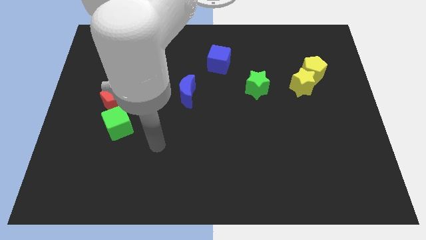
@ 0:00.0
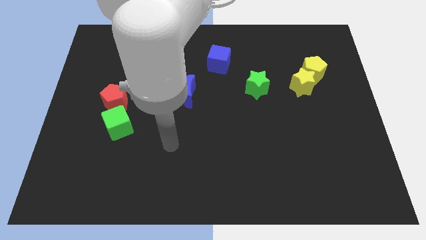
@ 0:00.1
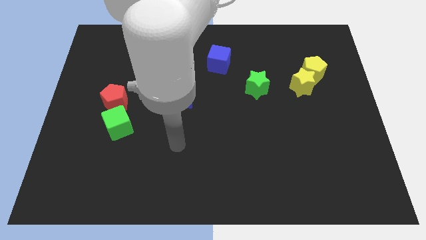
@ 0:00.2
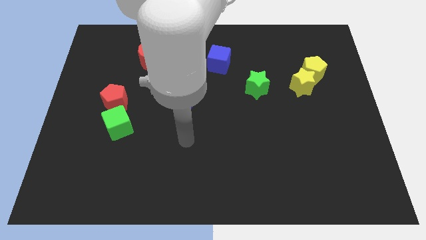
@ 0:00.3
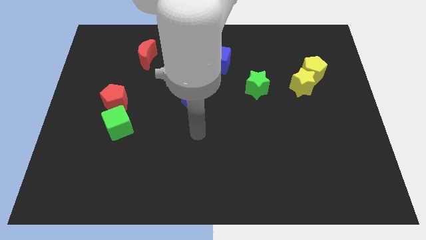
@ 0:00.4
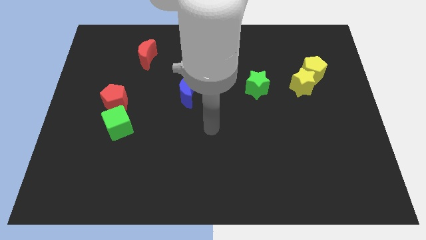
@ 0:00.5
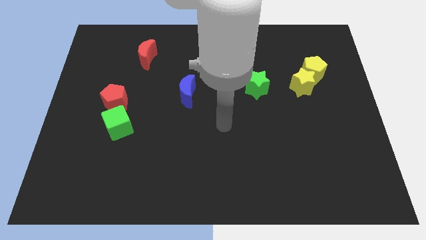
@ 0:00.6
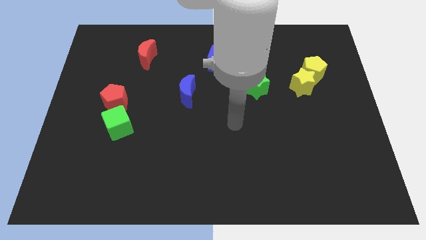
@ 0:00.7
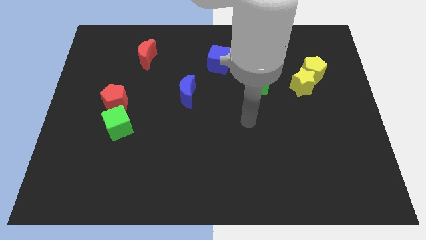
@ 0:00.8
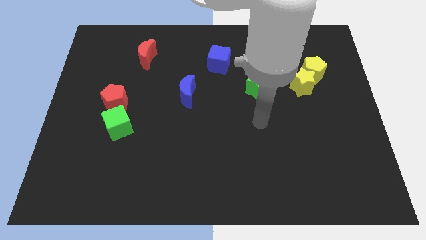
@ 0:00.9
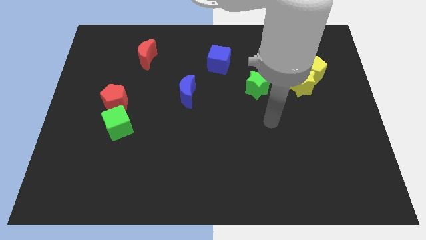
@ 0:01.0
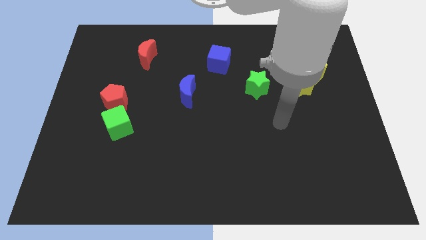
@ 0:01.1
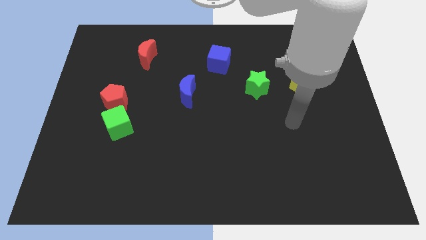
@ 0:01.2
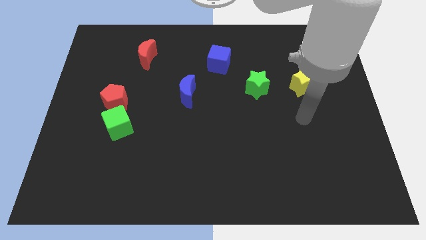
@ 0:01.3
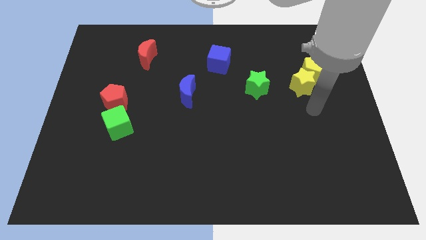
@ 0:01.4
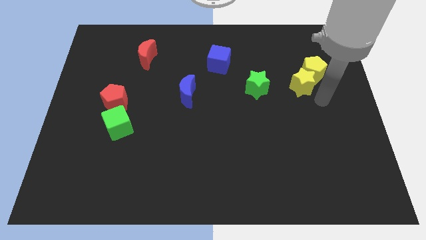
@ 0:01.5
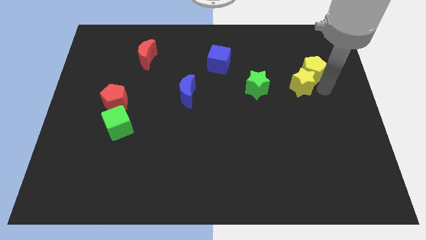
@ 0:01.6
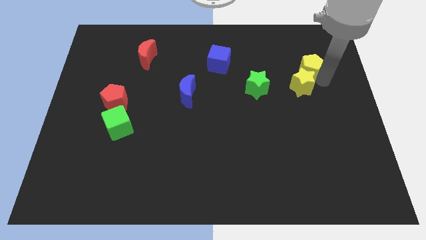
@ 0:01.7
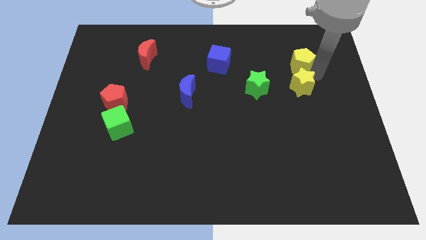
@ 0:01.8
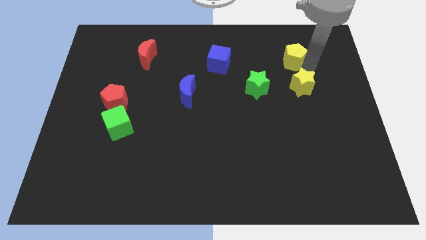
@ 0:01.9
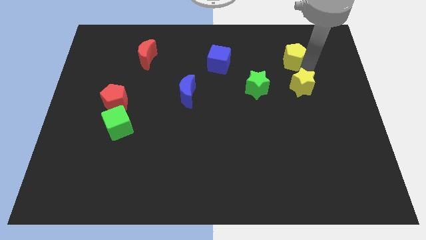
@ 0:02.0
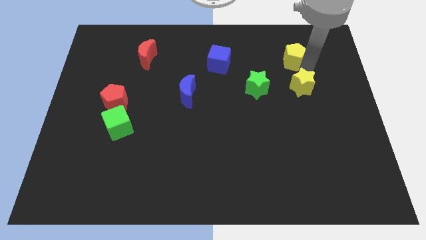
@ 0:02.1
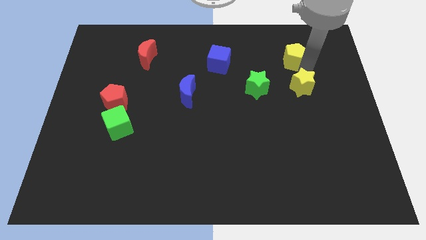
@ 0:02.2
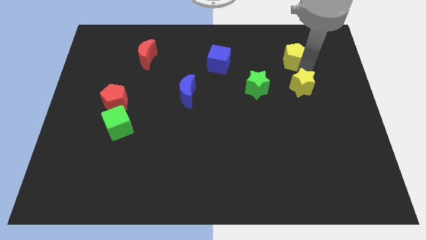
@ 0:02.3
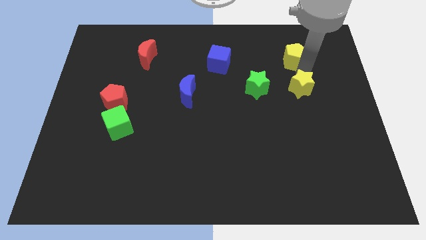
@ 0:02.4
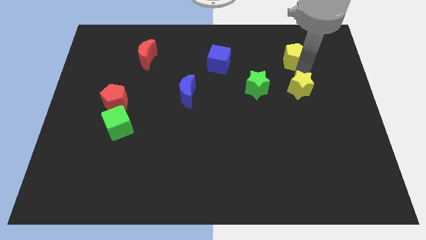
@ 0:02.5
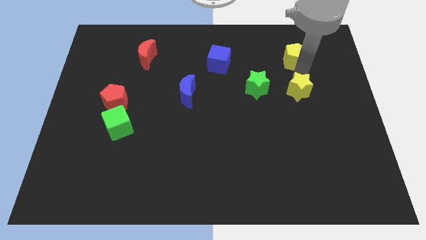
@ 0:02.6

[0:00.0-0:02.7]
move the yellow star away from the yellow pentagon

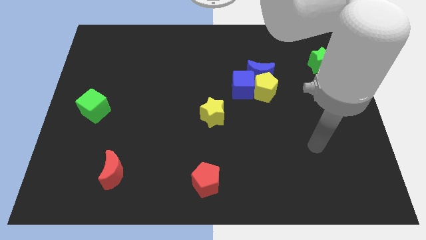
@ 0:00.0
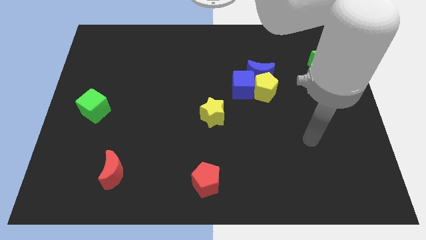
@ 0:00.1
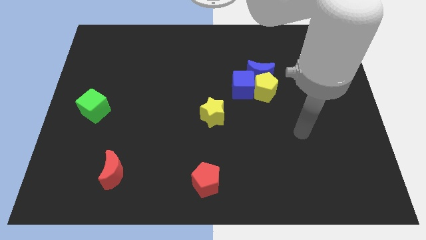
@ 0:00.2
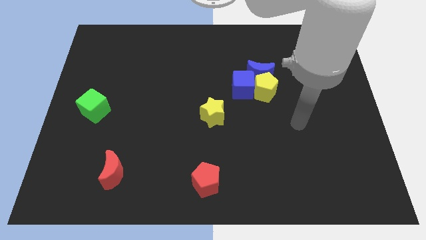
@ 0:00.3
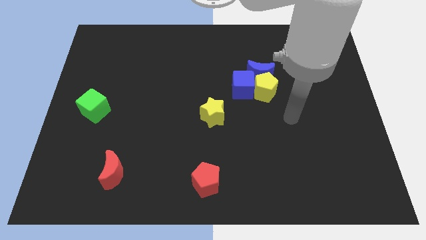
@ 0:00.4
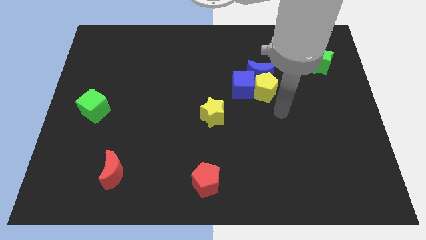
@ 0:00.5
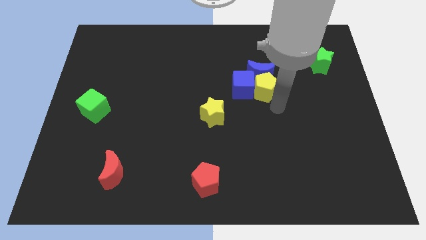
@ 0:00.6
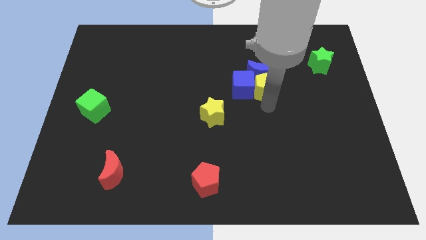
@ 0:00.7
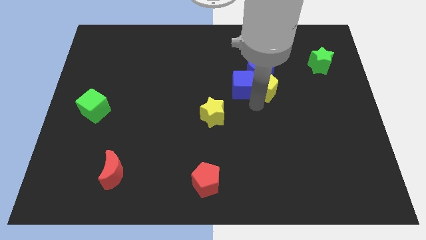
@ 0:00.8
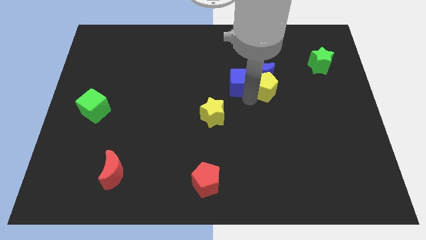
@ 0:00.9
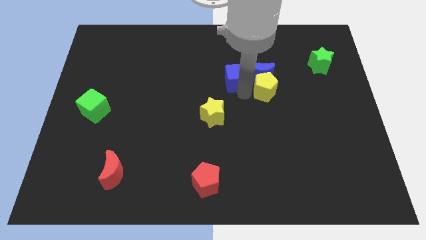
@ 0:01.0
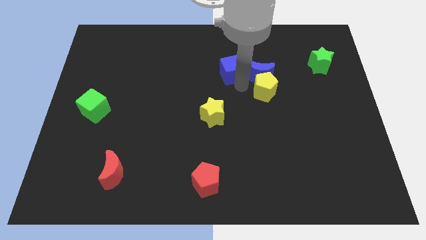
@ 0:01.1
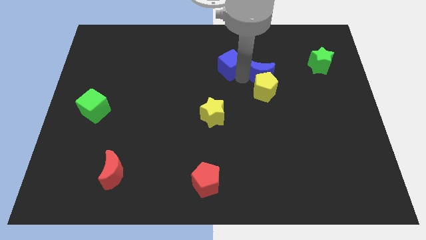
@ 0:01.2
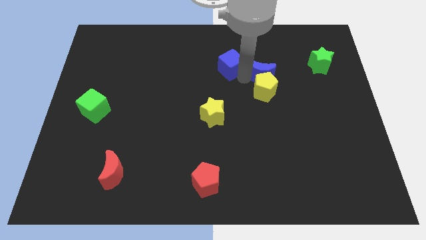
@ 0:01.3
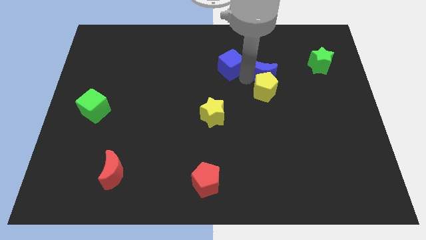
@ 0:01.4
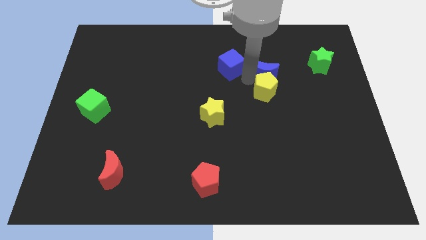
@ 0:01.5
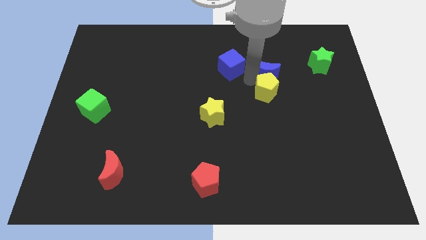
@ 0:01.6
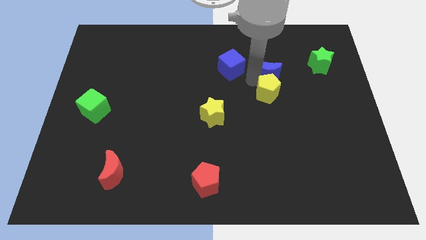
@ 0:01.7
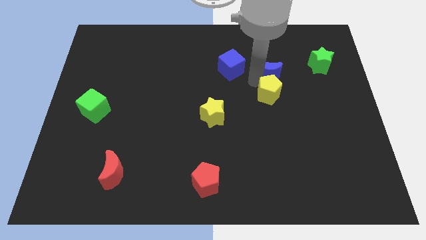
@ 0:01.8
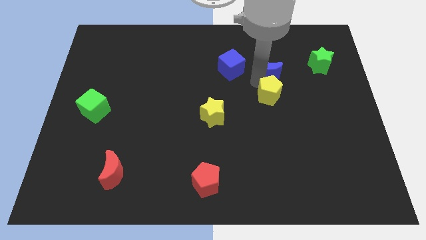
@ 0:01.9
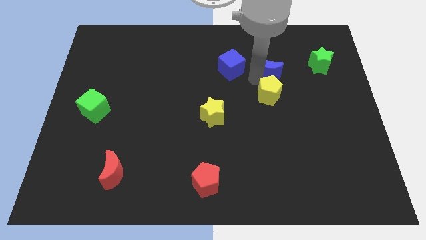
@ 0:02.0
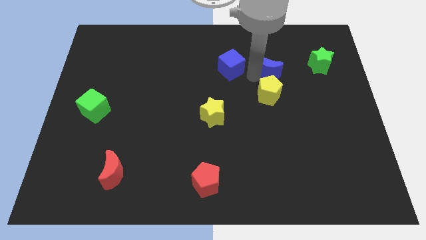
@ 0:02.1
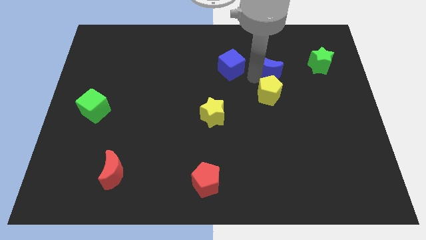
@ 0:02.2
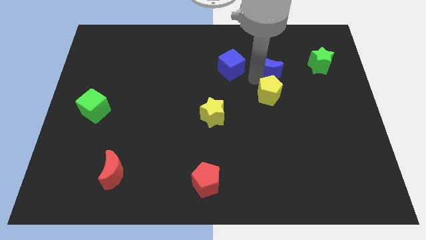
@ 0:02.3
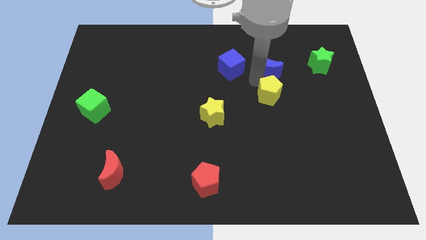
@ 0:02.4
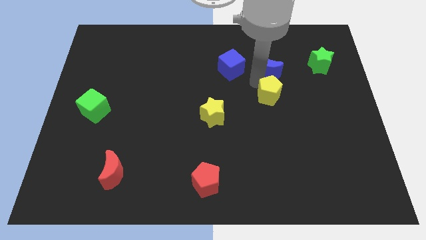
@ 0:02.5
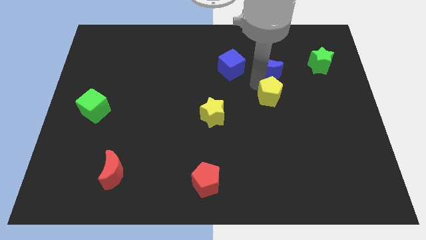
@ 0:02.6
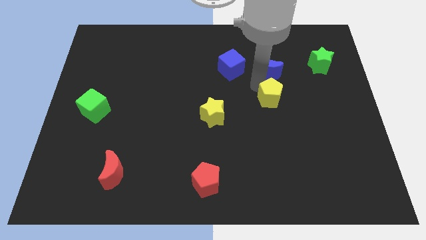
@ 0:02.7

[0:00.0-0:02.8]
separate the yellow pentagon from the blue moon and blue cube

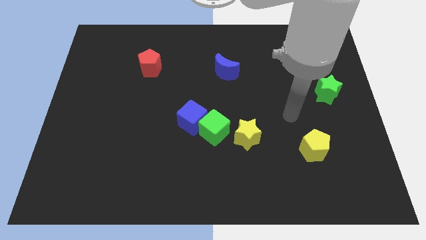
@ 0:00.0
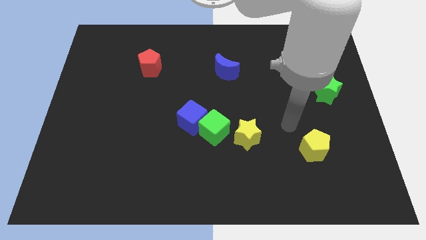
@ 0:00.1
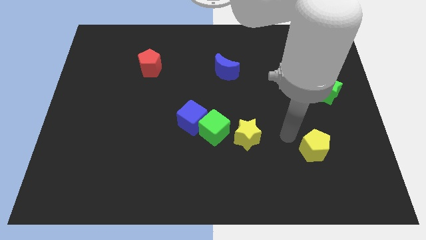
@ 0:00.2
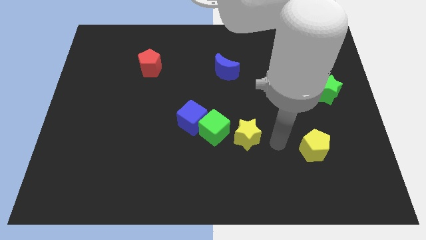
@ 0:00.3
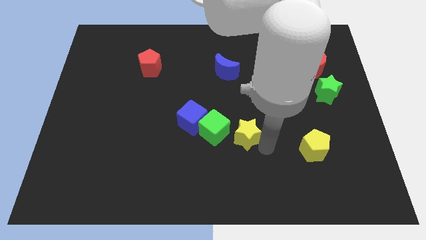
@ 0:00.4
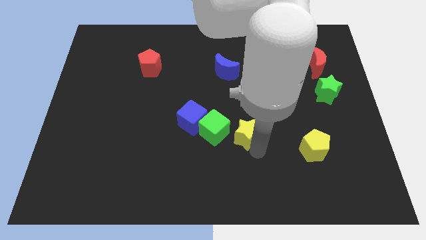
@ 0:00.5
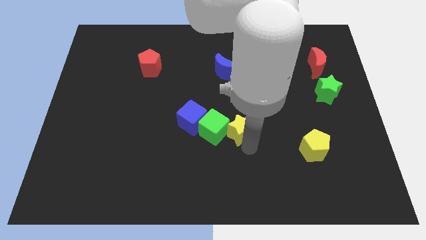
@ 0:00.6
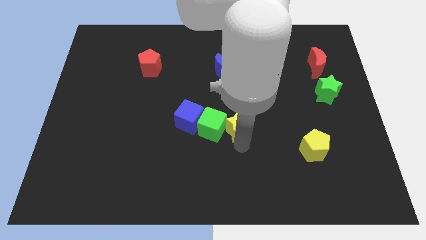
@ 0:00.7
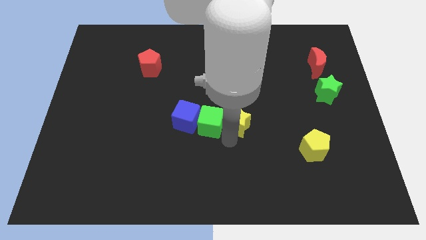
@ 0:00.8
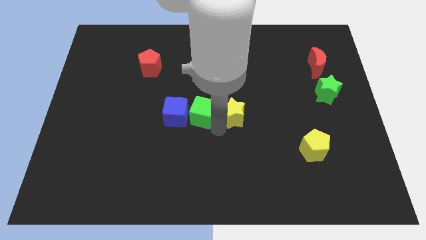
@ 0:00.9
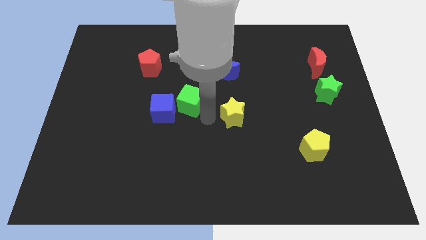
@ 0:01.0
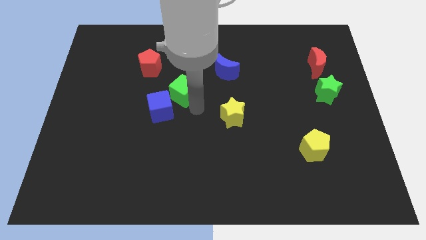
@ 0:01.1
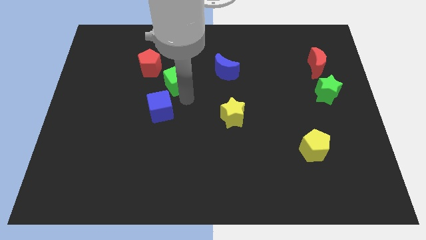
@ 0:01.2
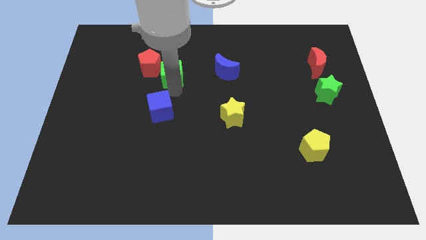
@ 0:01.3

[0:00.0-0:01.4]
move the blue cube away from the green cube

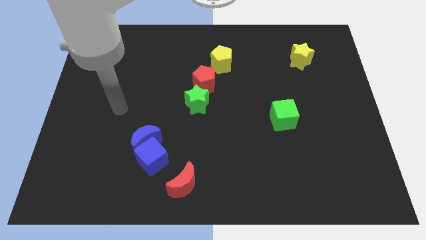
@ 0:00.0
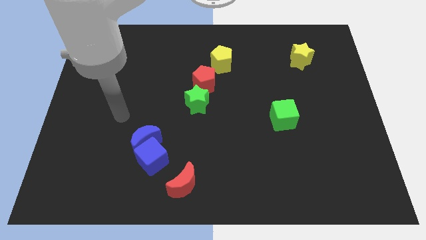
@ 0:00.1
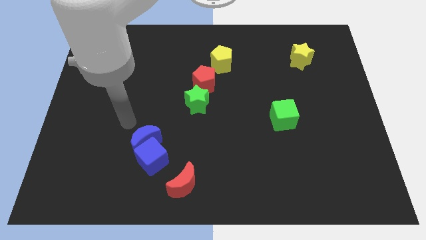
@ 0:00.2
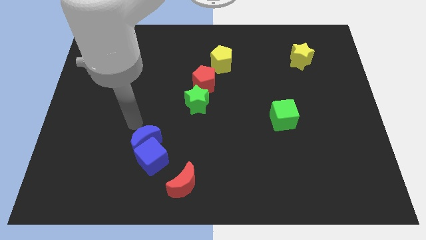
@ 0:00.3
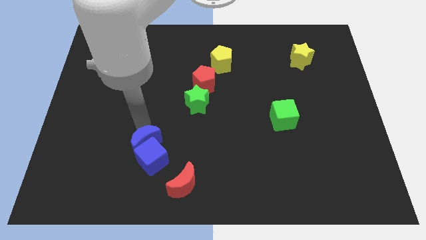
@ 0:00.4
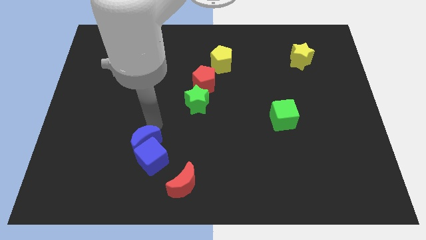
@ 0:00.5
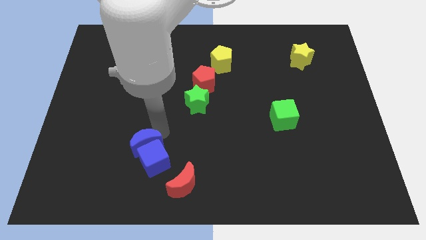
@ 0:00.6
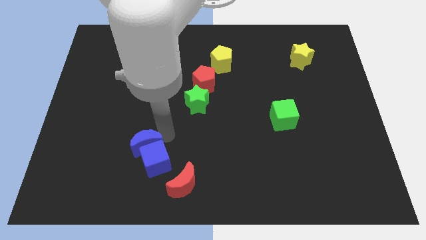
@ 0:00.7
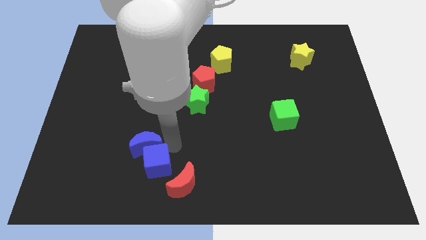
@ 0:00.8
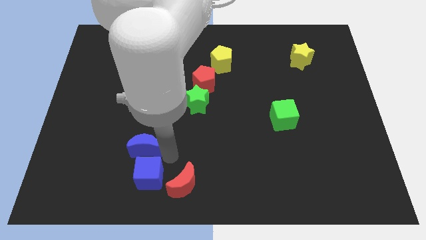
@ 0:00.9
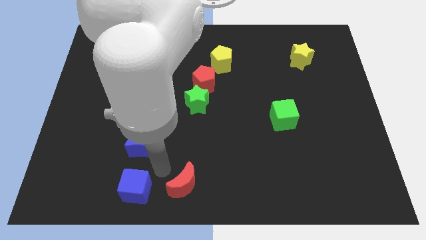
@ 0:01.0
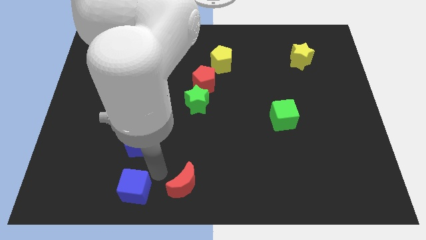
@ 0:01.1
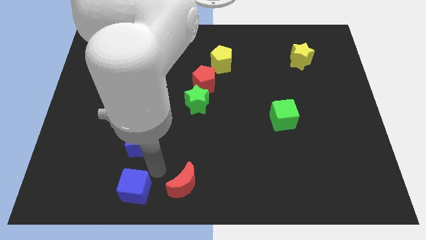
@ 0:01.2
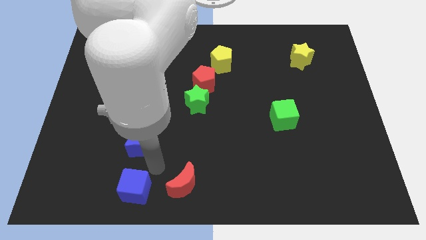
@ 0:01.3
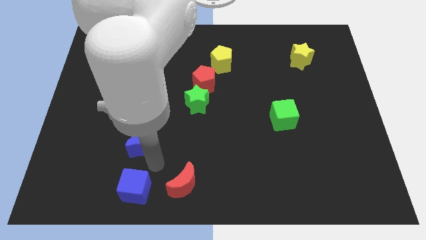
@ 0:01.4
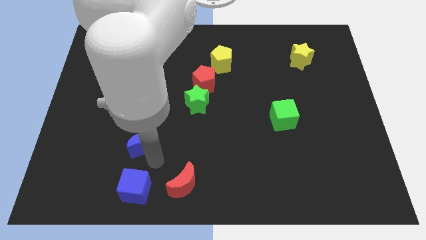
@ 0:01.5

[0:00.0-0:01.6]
move the blue moon away from the blue cube

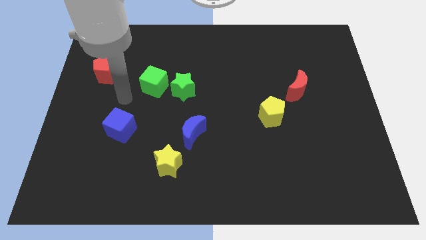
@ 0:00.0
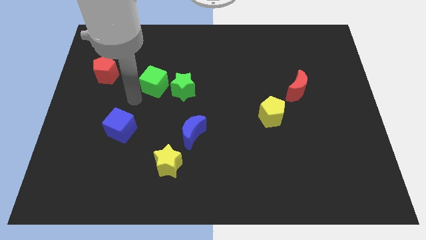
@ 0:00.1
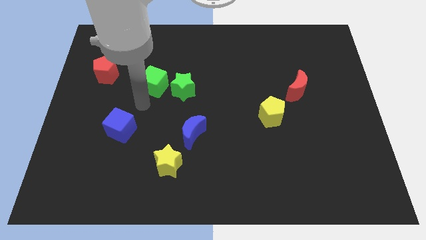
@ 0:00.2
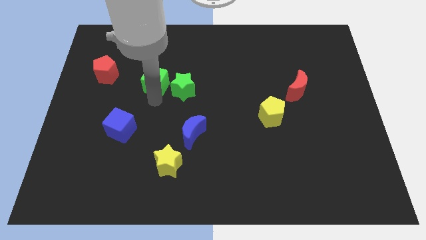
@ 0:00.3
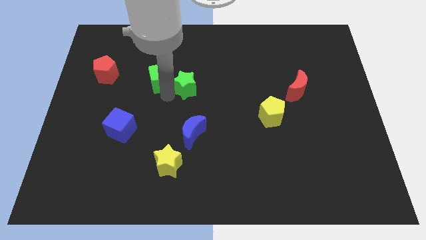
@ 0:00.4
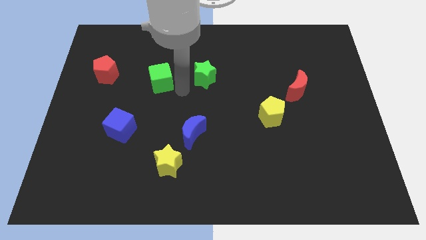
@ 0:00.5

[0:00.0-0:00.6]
move the green cube away from the green star
